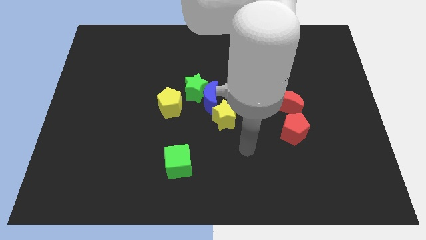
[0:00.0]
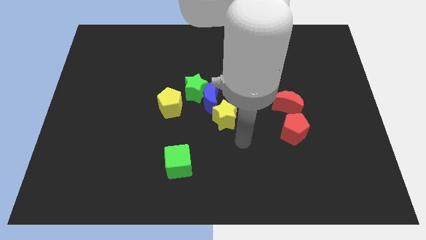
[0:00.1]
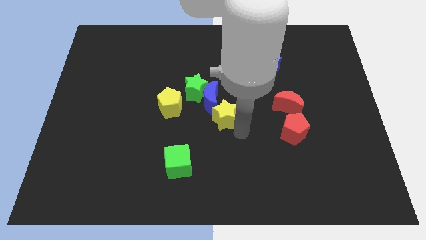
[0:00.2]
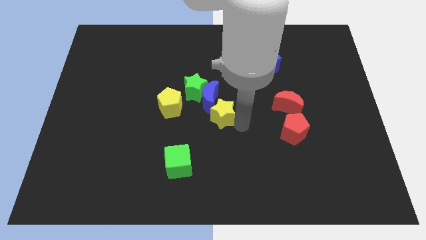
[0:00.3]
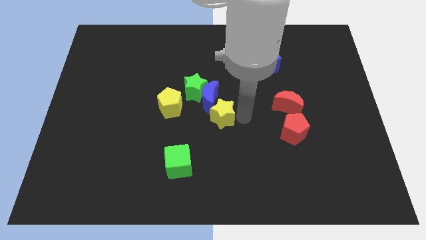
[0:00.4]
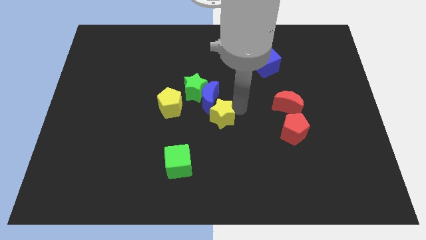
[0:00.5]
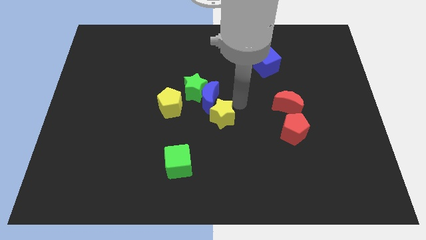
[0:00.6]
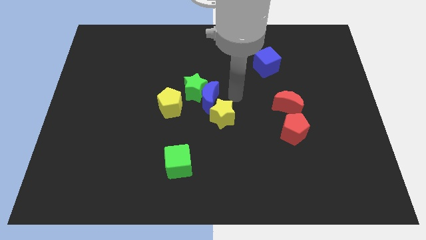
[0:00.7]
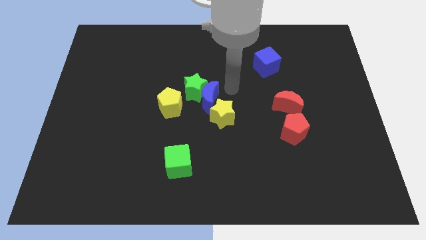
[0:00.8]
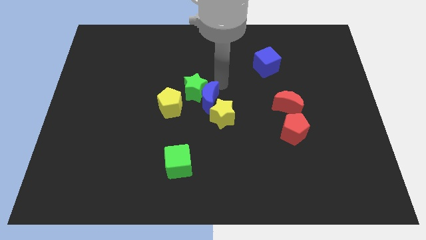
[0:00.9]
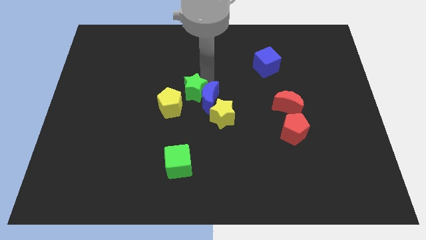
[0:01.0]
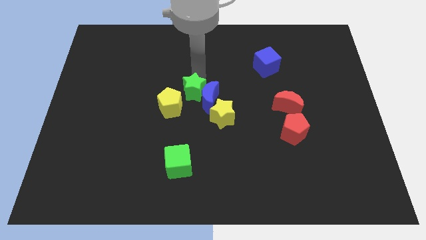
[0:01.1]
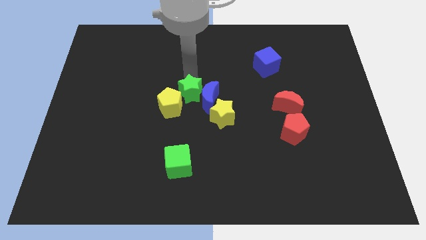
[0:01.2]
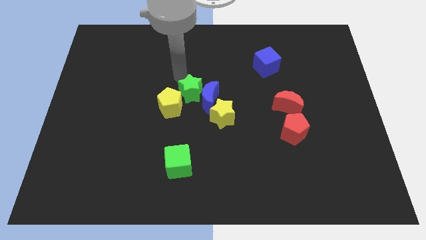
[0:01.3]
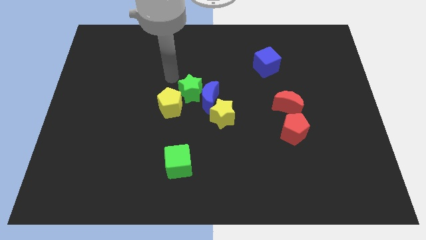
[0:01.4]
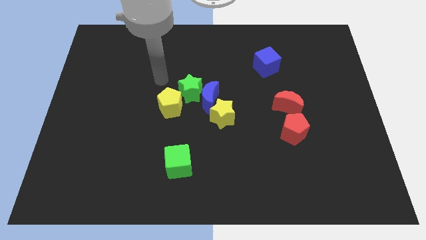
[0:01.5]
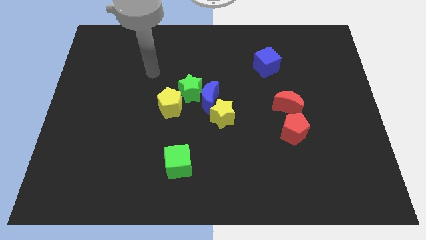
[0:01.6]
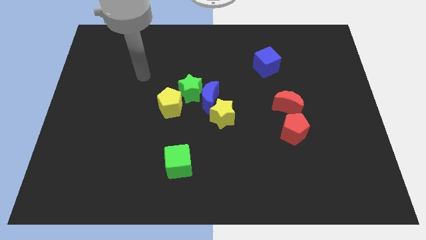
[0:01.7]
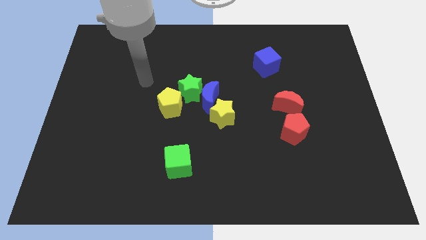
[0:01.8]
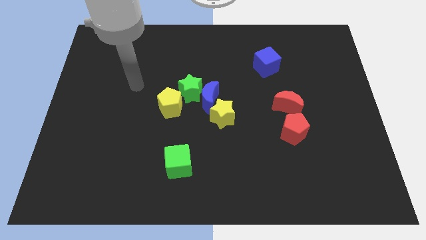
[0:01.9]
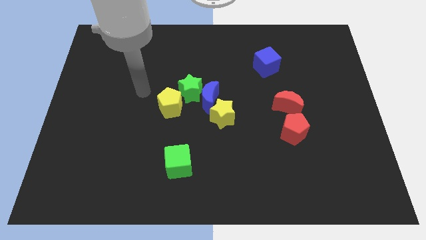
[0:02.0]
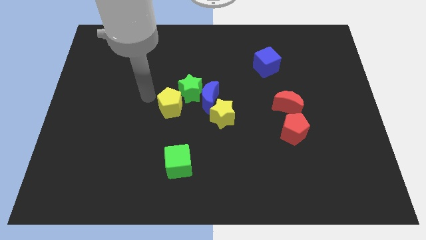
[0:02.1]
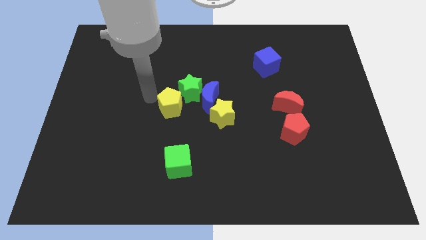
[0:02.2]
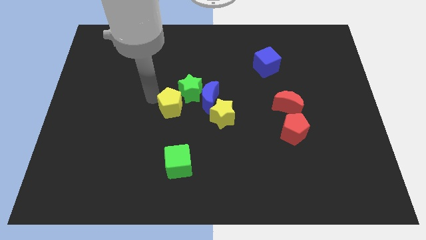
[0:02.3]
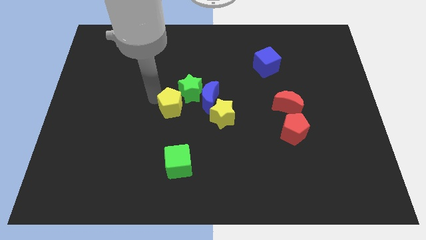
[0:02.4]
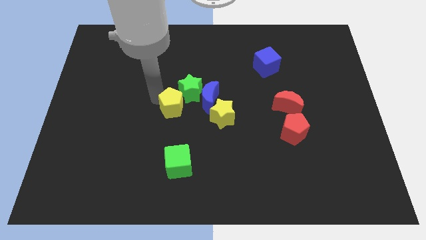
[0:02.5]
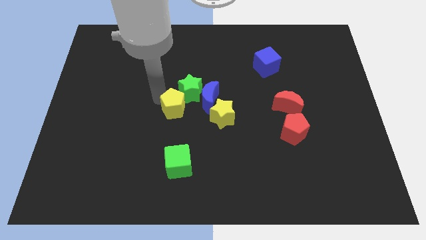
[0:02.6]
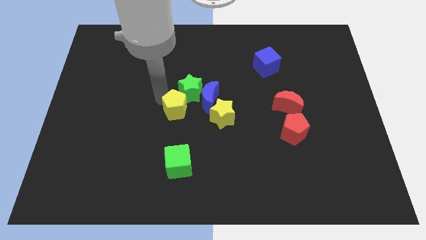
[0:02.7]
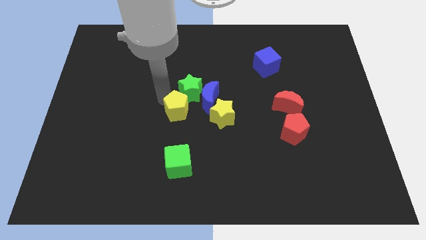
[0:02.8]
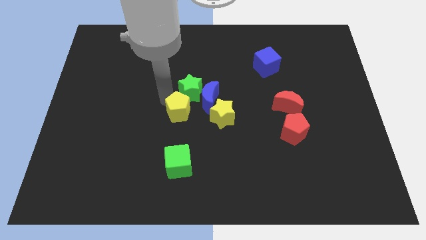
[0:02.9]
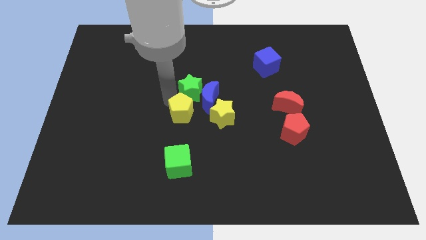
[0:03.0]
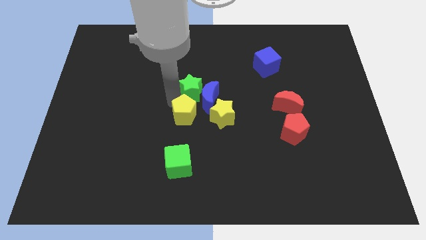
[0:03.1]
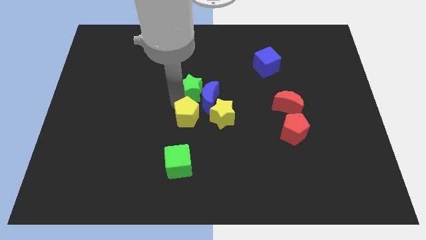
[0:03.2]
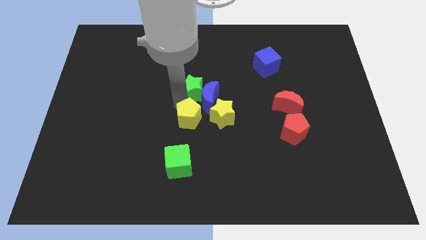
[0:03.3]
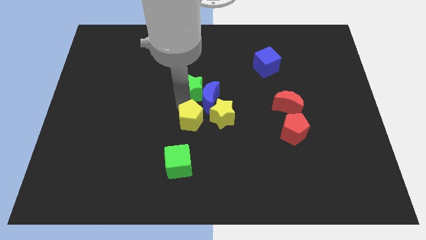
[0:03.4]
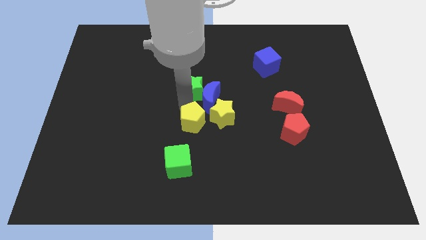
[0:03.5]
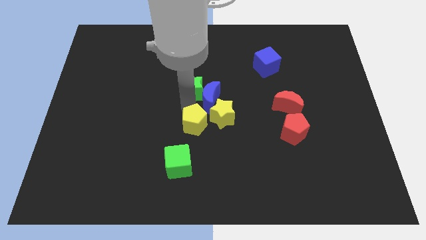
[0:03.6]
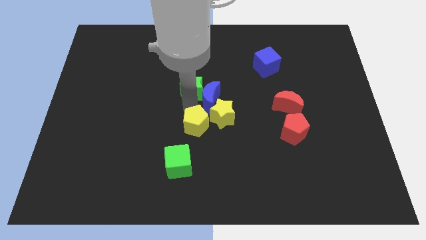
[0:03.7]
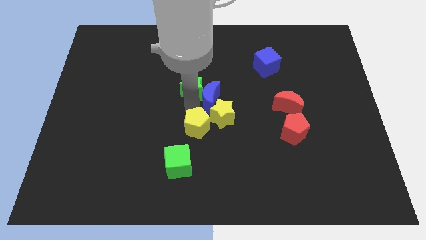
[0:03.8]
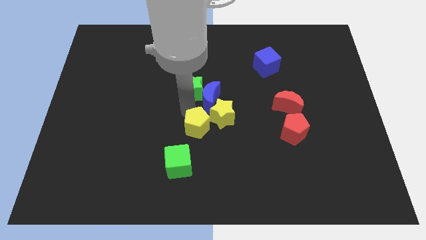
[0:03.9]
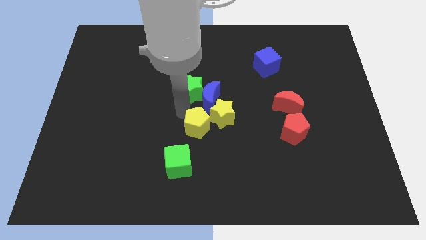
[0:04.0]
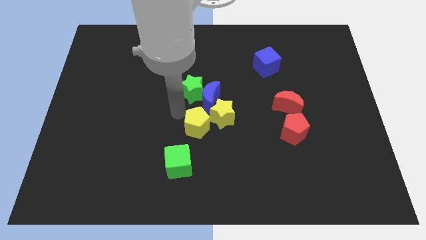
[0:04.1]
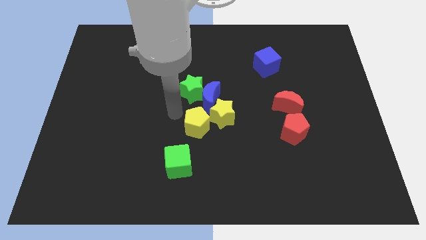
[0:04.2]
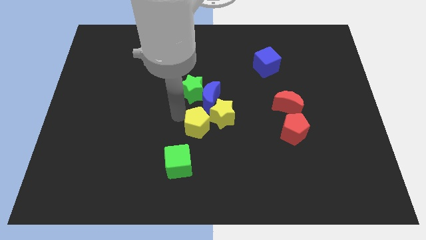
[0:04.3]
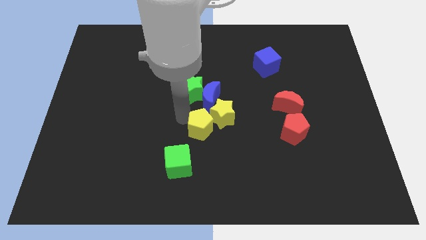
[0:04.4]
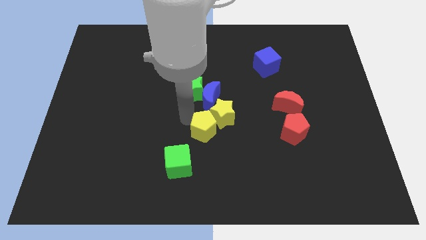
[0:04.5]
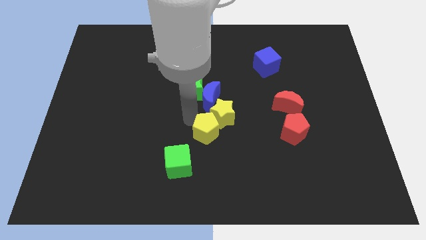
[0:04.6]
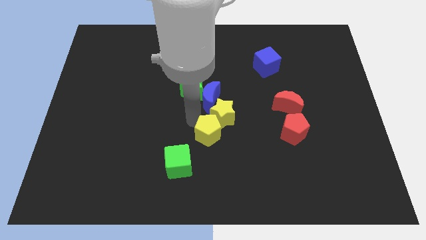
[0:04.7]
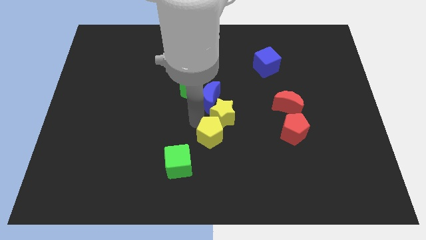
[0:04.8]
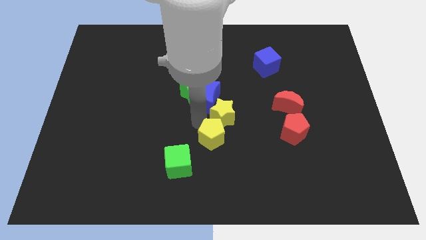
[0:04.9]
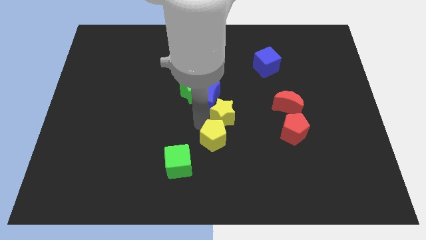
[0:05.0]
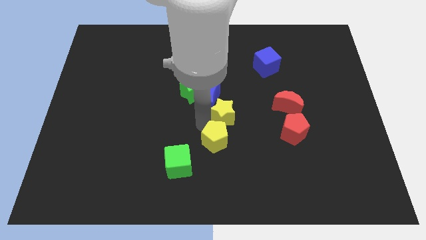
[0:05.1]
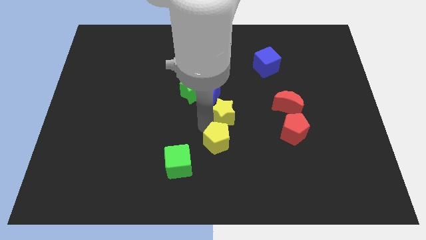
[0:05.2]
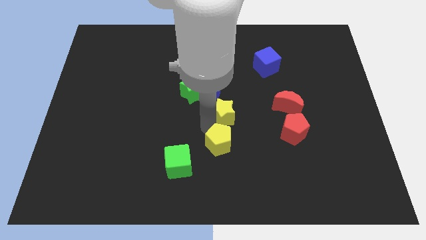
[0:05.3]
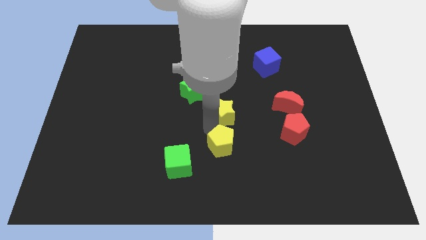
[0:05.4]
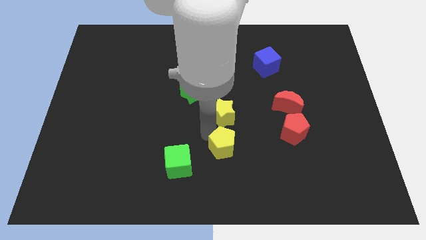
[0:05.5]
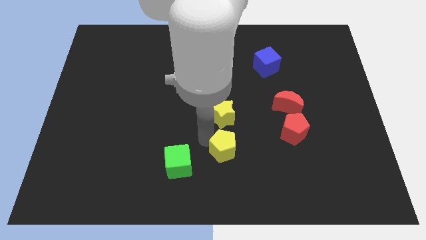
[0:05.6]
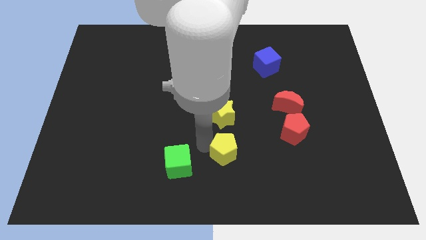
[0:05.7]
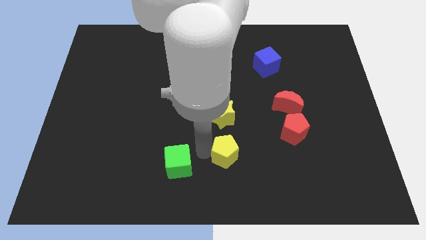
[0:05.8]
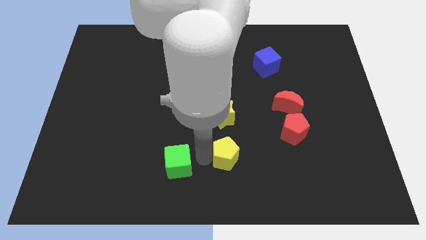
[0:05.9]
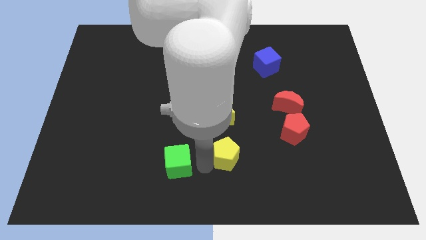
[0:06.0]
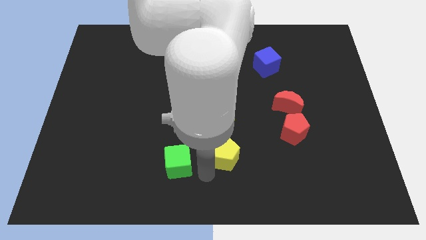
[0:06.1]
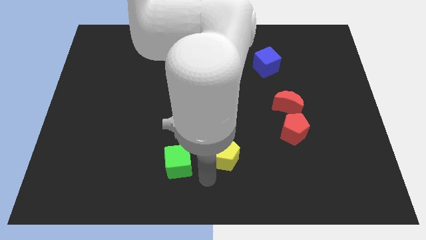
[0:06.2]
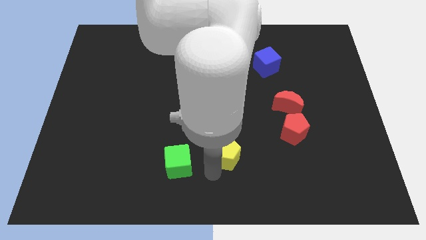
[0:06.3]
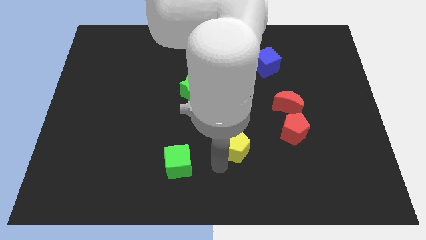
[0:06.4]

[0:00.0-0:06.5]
move the yellow pentagon to the left of the red pentagon
